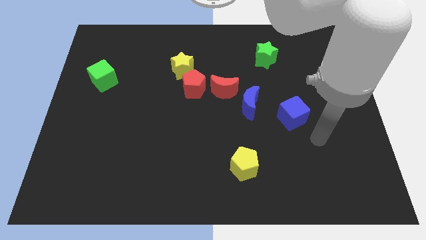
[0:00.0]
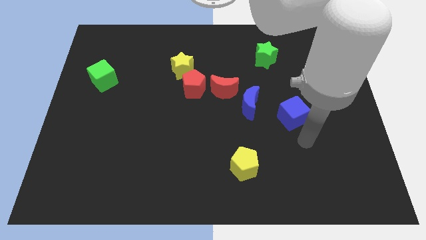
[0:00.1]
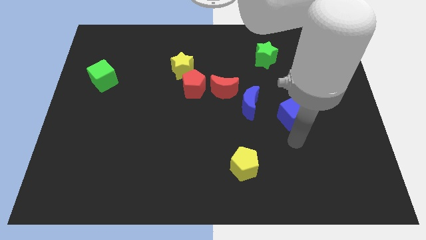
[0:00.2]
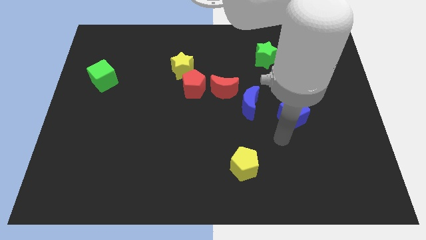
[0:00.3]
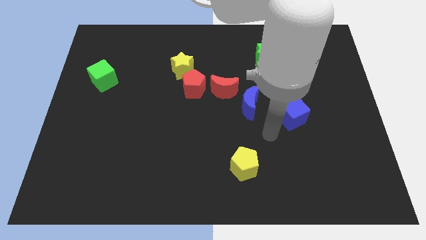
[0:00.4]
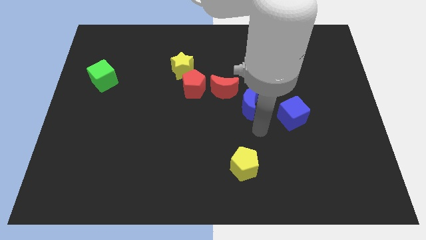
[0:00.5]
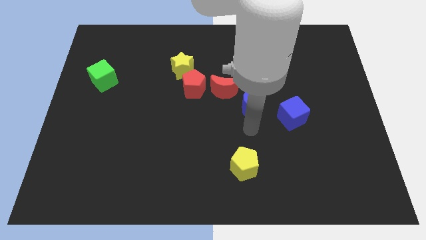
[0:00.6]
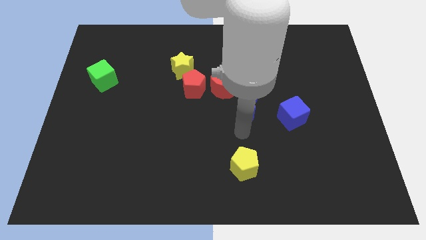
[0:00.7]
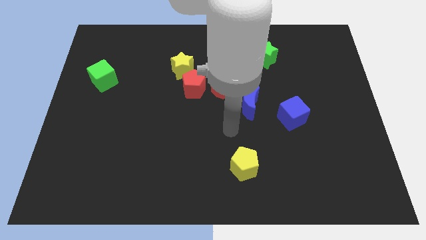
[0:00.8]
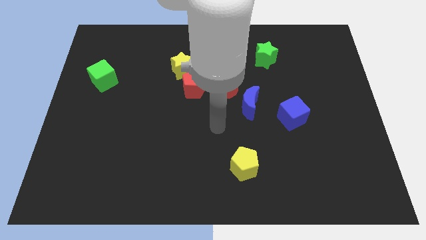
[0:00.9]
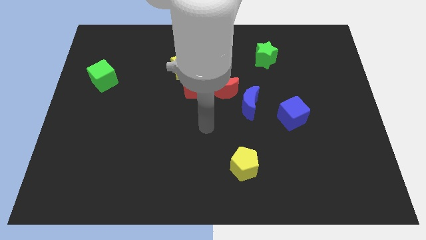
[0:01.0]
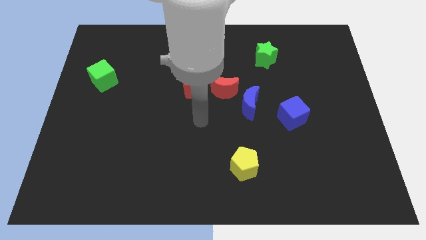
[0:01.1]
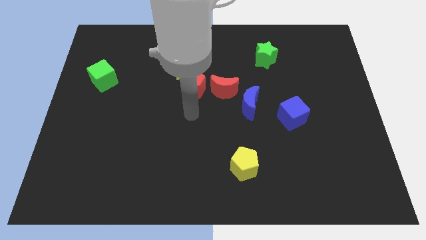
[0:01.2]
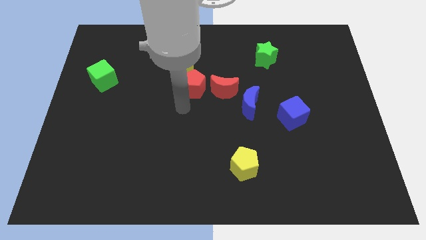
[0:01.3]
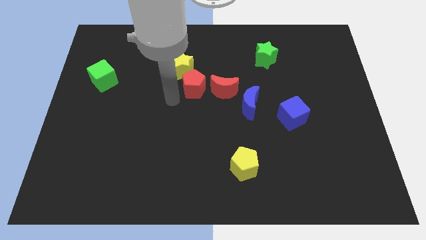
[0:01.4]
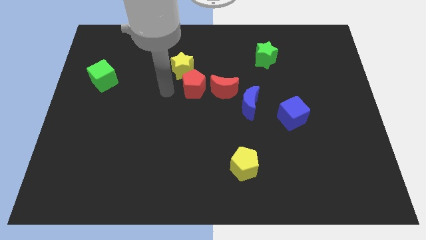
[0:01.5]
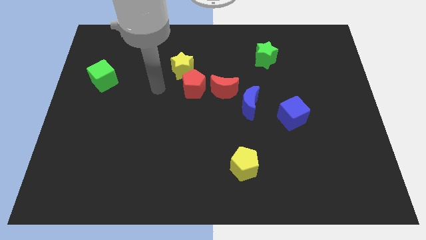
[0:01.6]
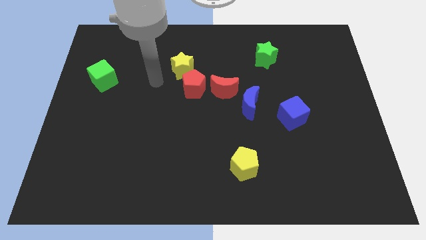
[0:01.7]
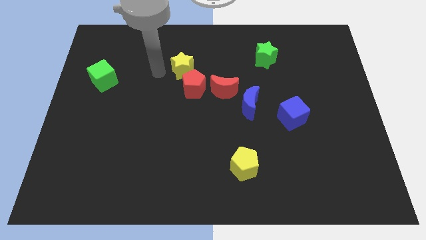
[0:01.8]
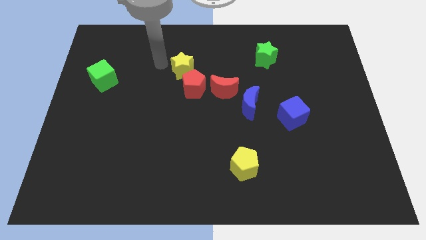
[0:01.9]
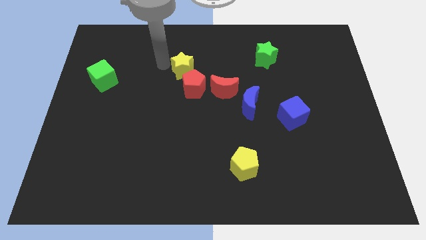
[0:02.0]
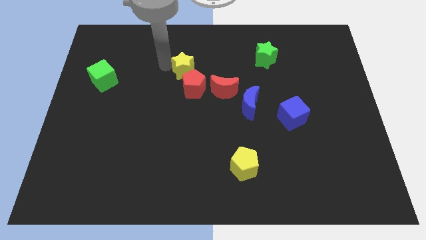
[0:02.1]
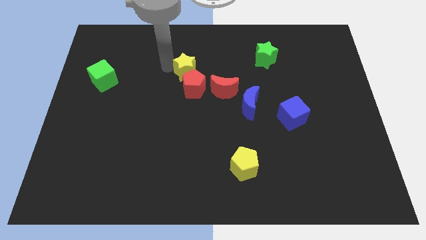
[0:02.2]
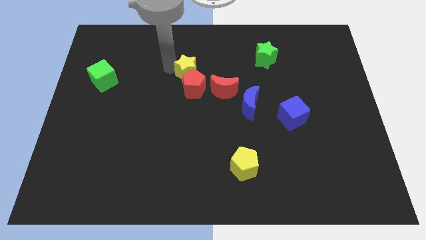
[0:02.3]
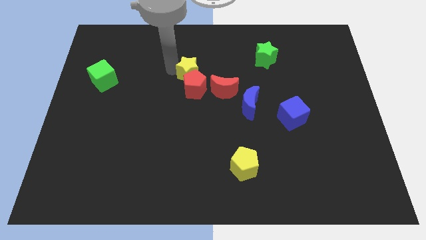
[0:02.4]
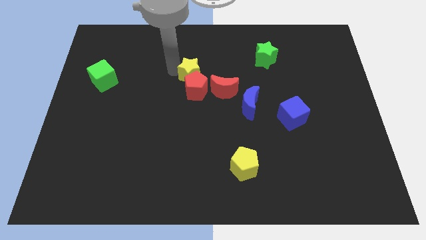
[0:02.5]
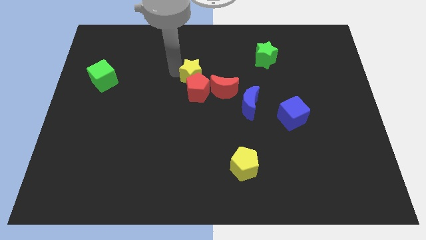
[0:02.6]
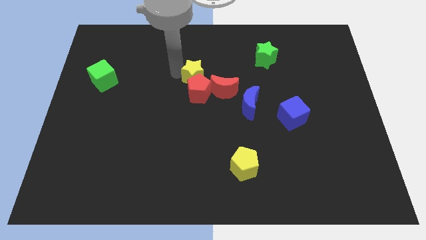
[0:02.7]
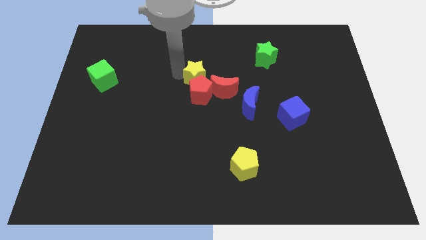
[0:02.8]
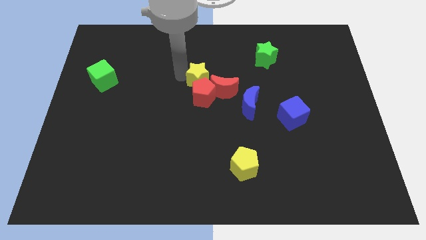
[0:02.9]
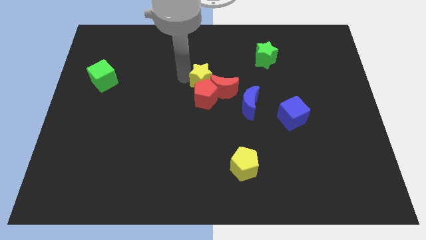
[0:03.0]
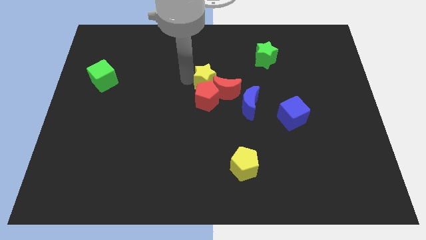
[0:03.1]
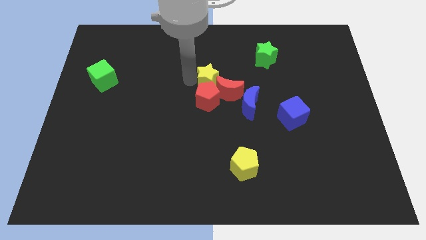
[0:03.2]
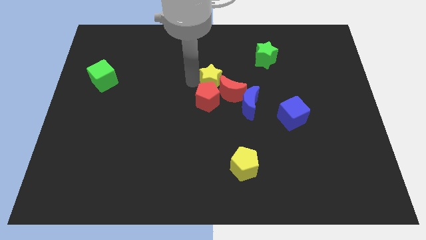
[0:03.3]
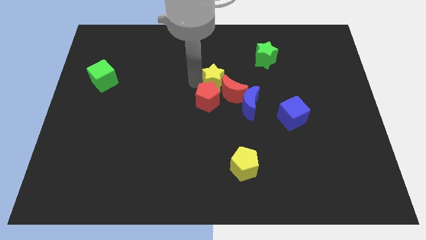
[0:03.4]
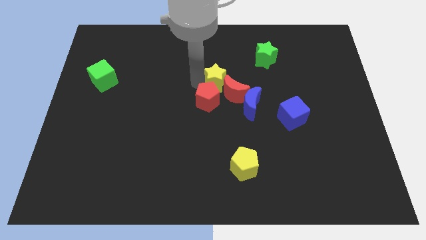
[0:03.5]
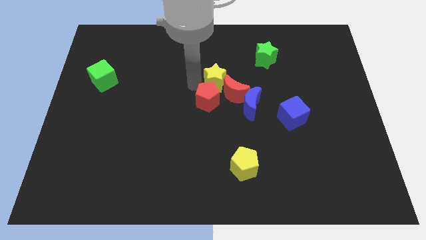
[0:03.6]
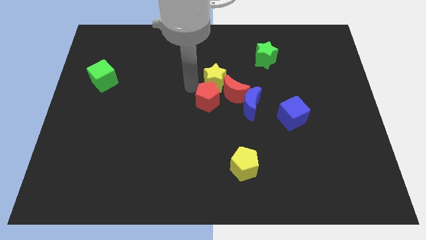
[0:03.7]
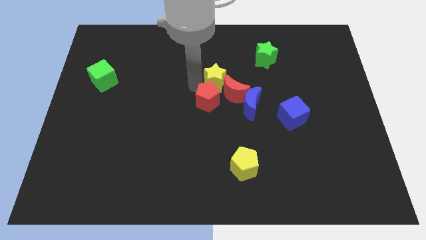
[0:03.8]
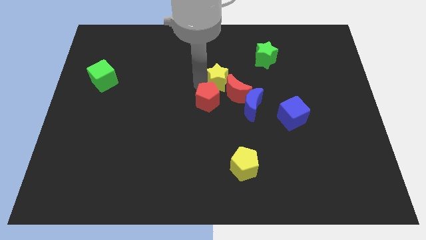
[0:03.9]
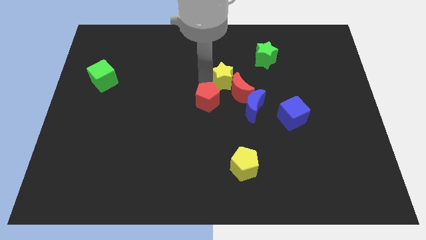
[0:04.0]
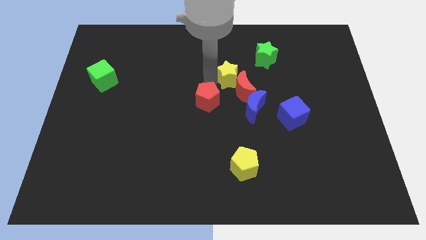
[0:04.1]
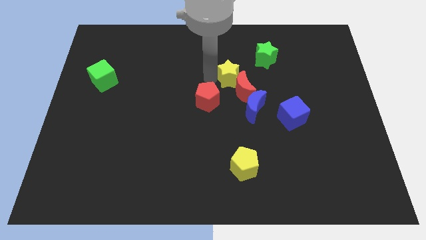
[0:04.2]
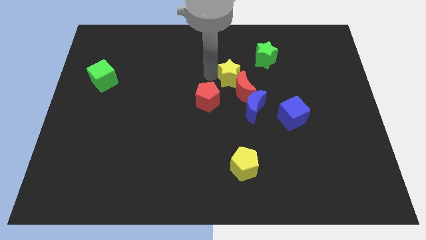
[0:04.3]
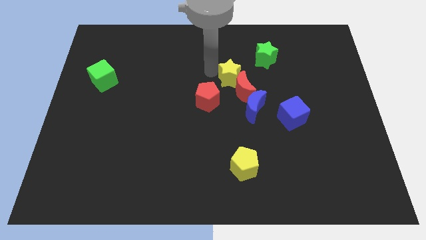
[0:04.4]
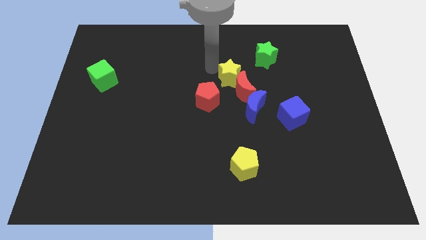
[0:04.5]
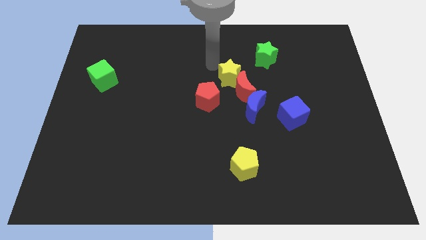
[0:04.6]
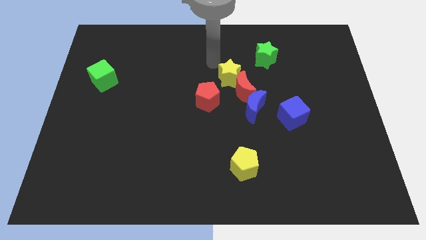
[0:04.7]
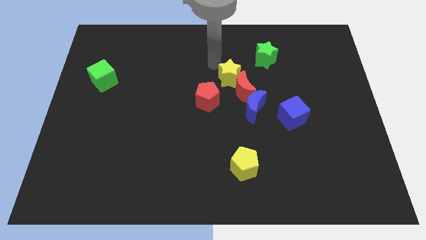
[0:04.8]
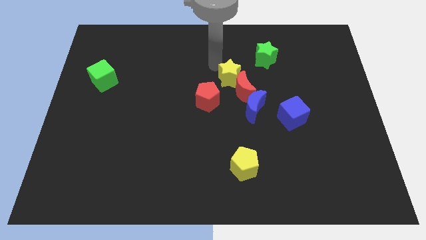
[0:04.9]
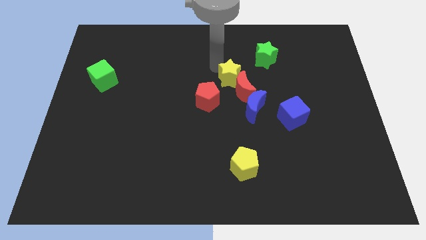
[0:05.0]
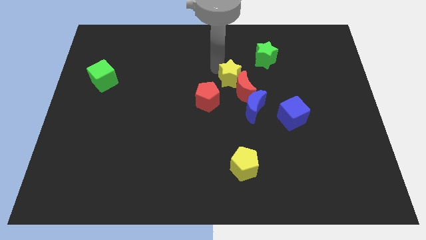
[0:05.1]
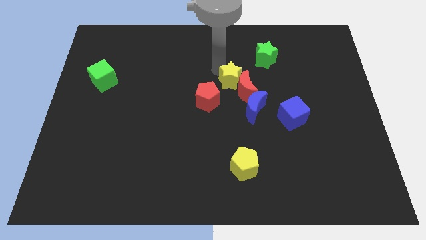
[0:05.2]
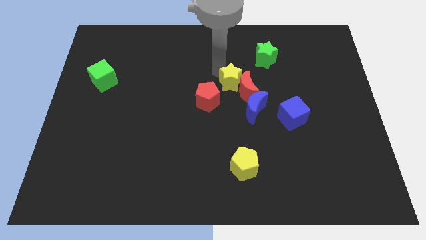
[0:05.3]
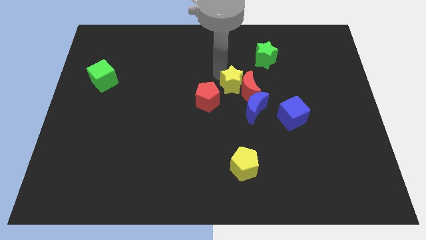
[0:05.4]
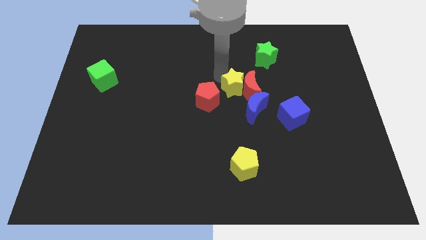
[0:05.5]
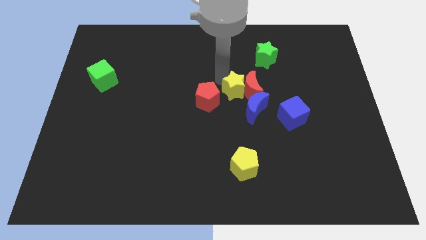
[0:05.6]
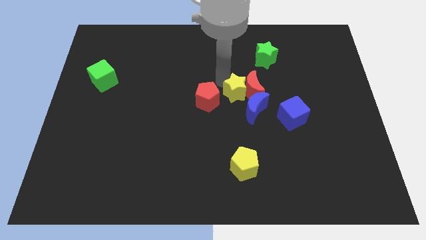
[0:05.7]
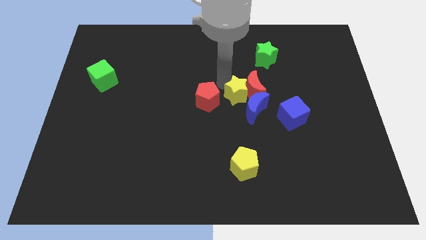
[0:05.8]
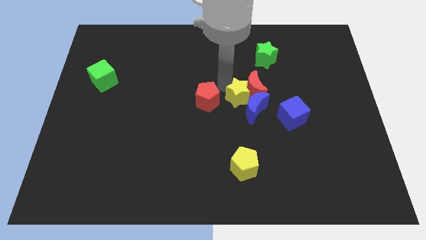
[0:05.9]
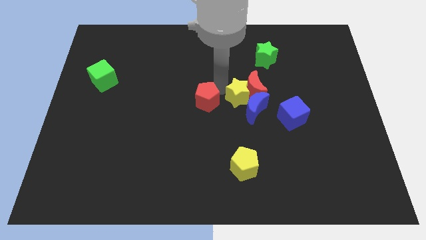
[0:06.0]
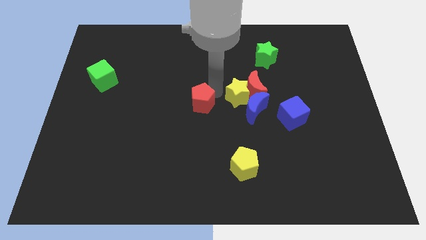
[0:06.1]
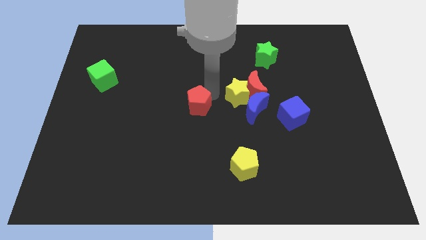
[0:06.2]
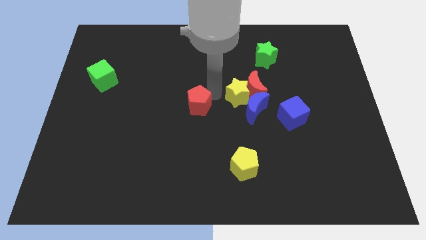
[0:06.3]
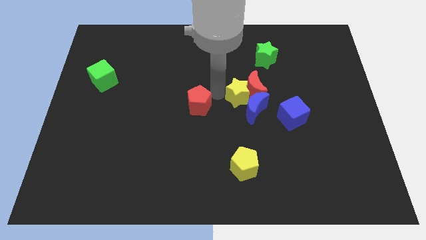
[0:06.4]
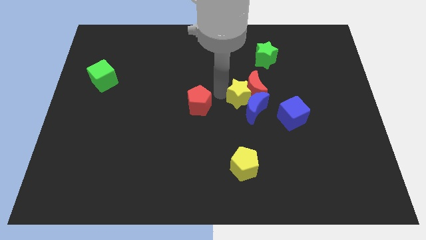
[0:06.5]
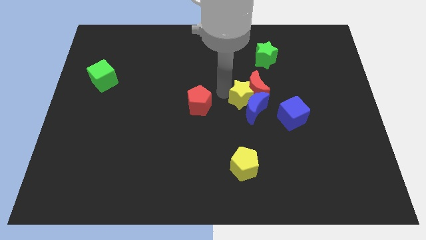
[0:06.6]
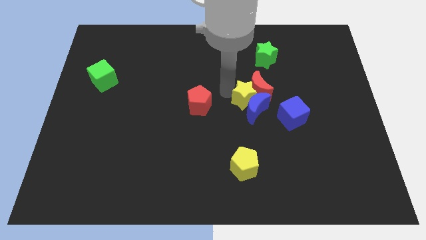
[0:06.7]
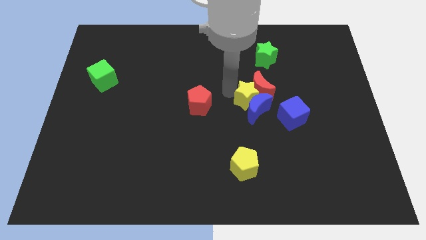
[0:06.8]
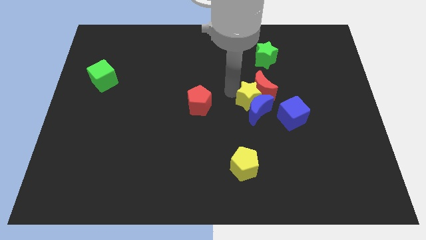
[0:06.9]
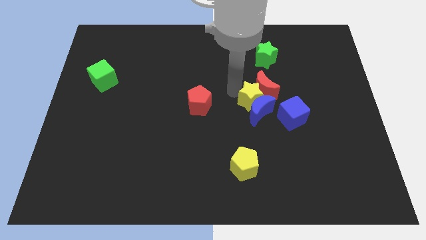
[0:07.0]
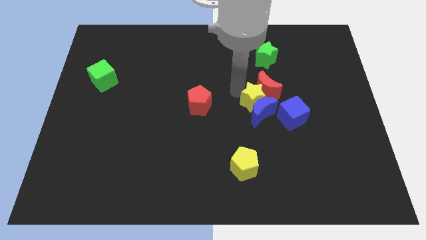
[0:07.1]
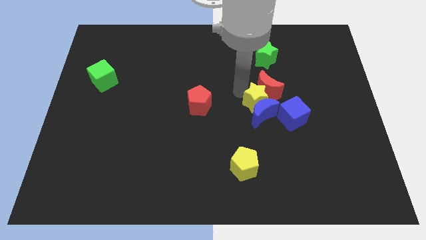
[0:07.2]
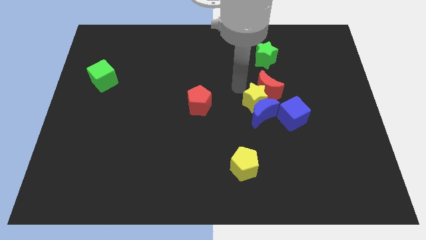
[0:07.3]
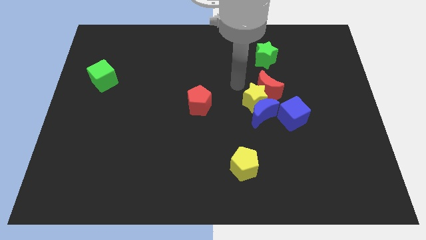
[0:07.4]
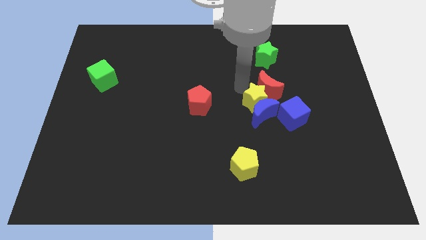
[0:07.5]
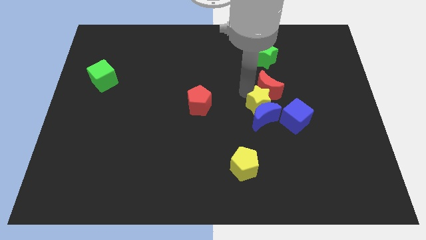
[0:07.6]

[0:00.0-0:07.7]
slide the yellow star downwards and right

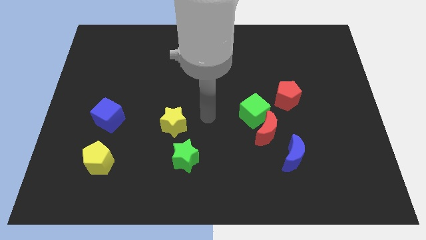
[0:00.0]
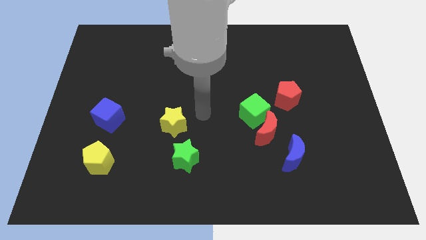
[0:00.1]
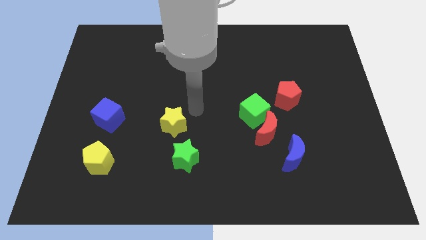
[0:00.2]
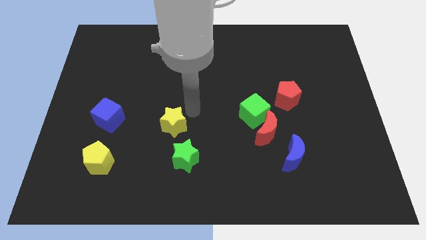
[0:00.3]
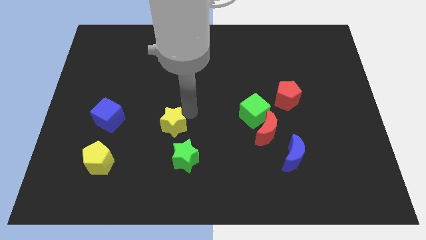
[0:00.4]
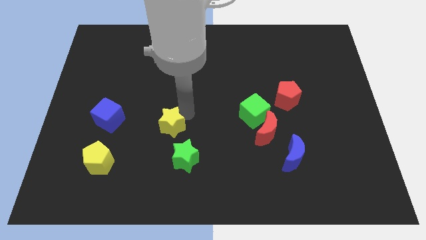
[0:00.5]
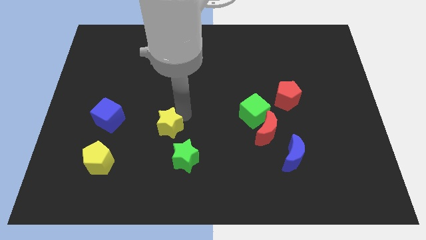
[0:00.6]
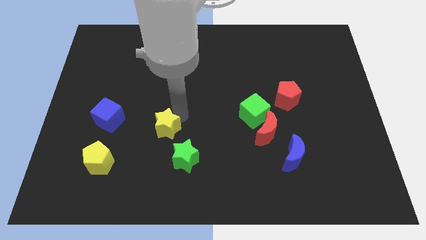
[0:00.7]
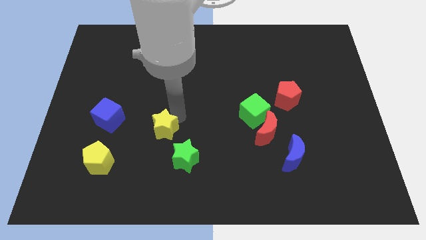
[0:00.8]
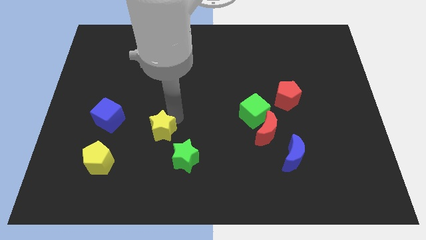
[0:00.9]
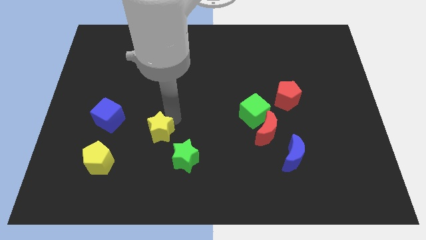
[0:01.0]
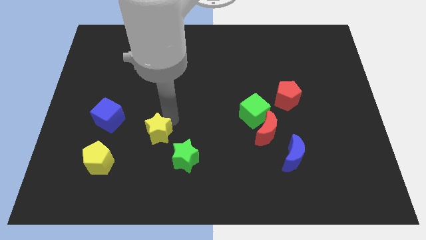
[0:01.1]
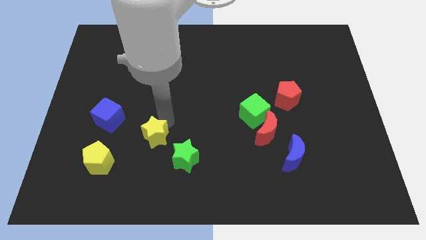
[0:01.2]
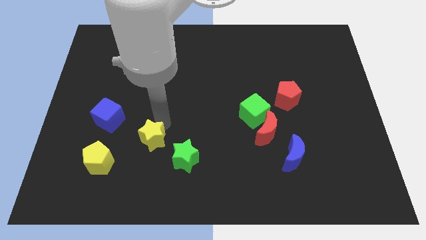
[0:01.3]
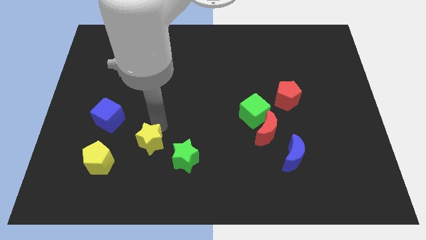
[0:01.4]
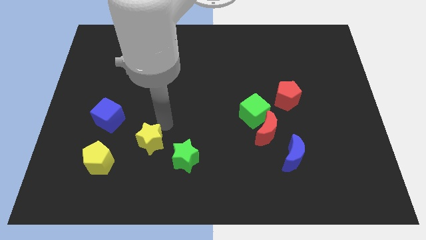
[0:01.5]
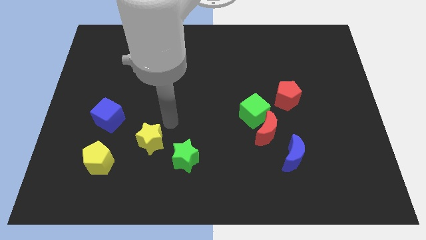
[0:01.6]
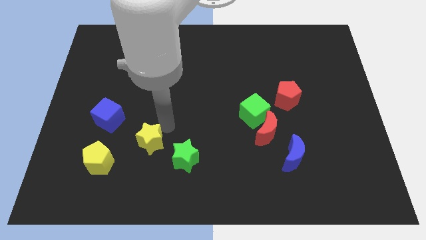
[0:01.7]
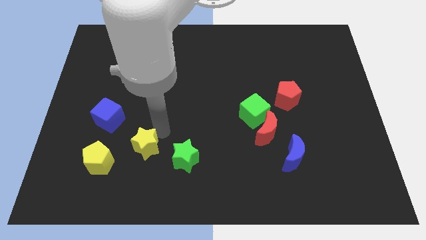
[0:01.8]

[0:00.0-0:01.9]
push the yellow star a little diagonally downwards and left
